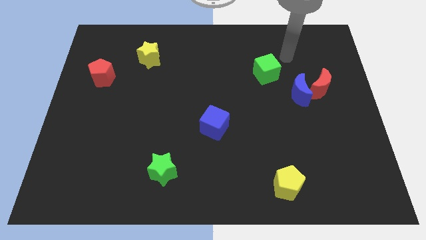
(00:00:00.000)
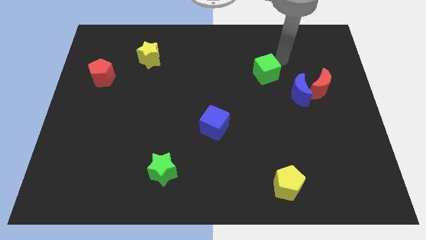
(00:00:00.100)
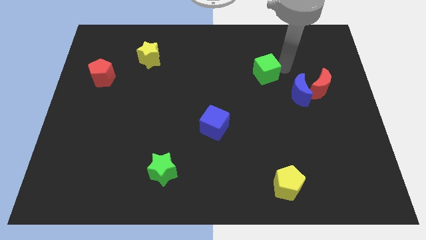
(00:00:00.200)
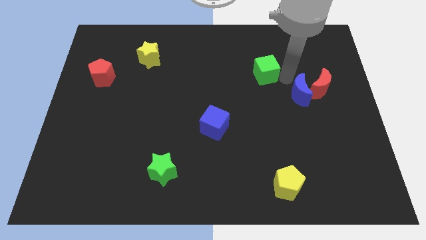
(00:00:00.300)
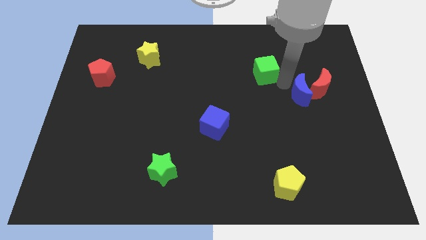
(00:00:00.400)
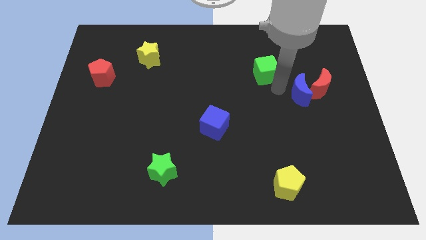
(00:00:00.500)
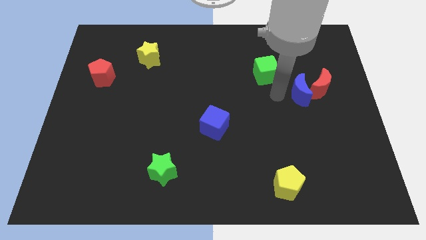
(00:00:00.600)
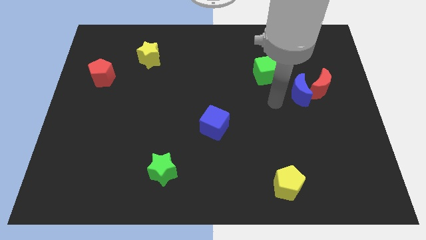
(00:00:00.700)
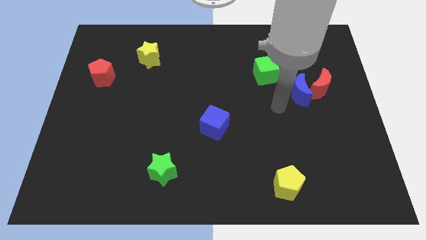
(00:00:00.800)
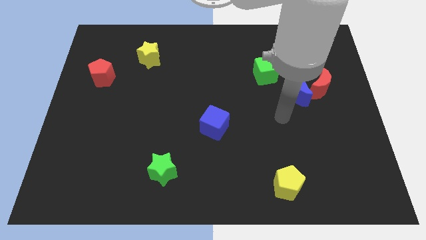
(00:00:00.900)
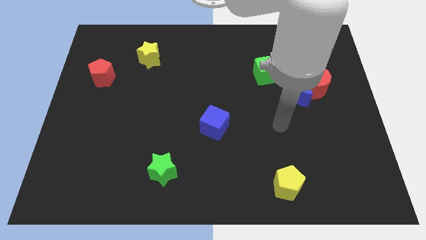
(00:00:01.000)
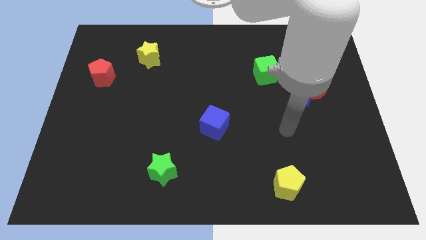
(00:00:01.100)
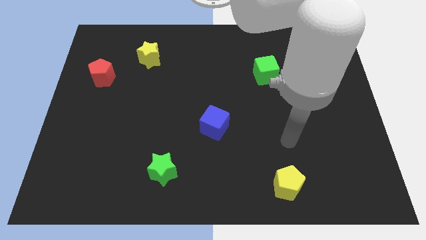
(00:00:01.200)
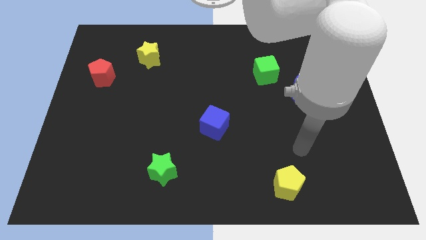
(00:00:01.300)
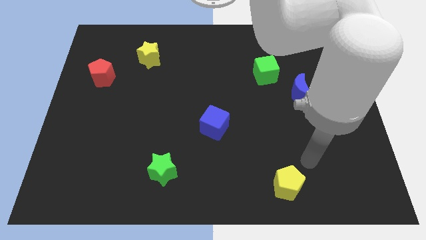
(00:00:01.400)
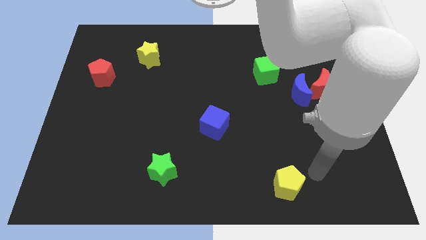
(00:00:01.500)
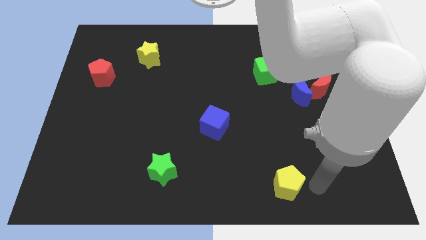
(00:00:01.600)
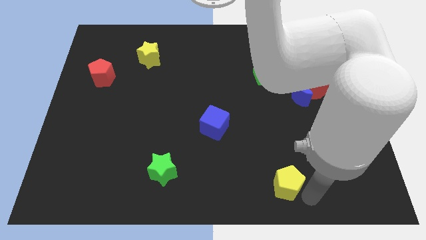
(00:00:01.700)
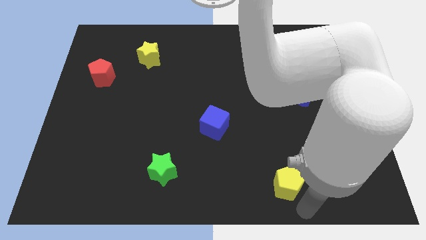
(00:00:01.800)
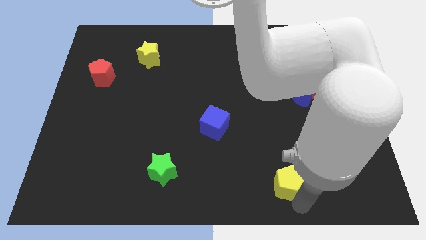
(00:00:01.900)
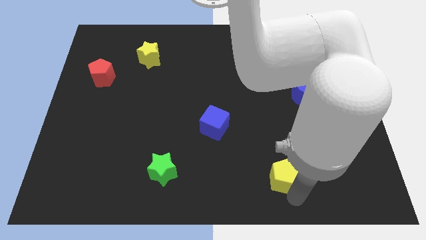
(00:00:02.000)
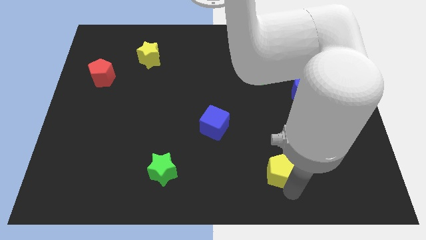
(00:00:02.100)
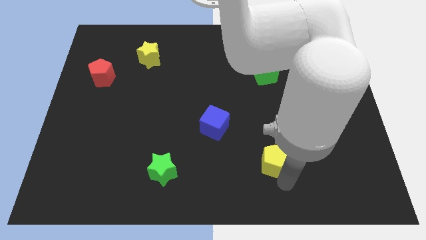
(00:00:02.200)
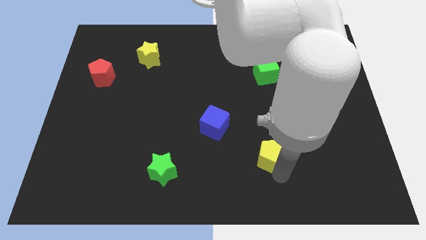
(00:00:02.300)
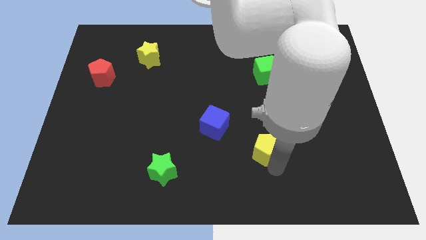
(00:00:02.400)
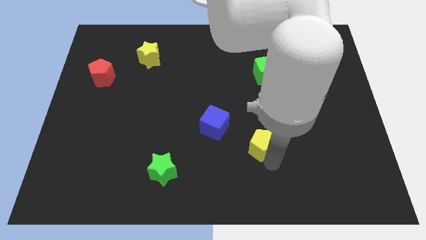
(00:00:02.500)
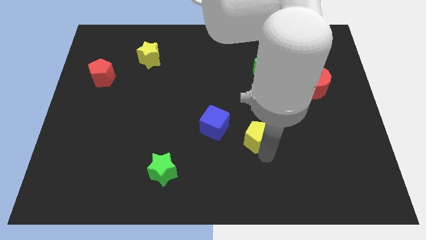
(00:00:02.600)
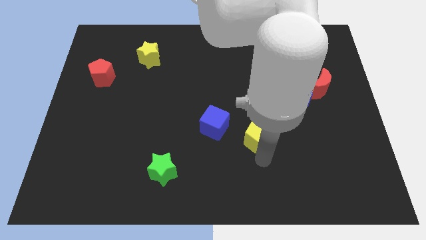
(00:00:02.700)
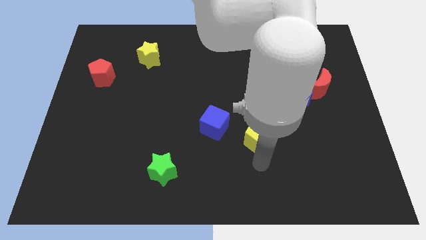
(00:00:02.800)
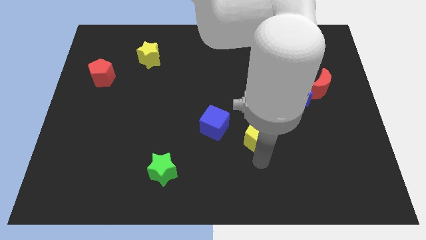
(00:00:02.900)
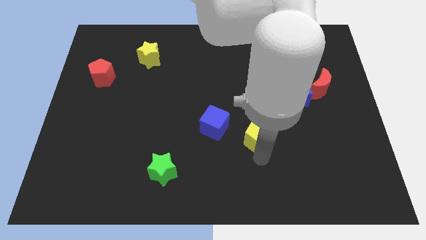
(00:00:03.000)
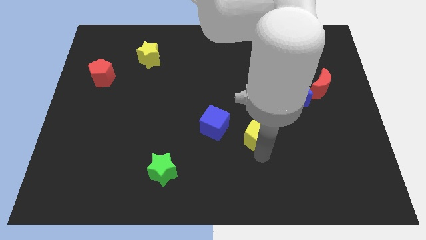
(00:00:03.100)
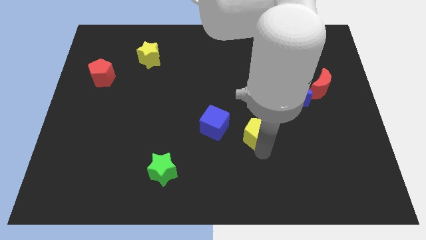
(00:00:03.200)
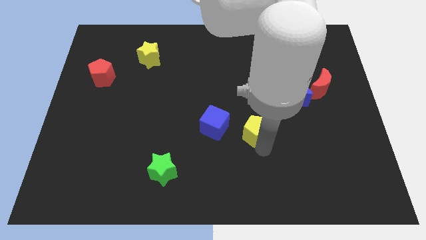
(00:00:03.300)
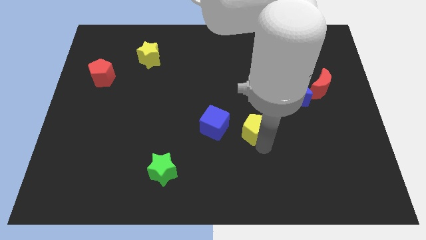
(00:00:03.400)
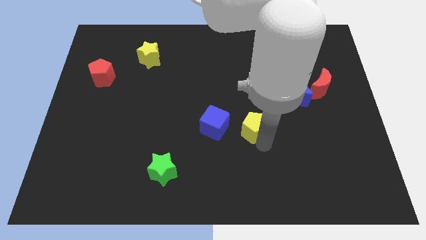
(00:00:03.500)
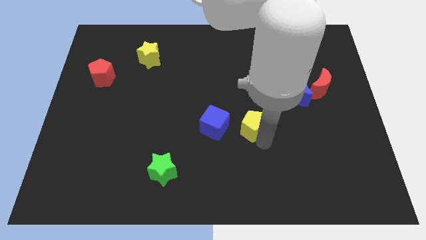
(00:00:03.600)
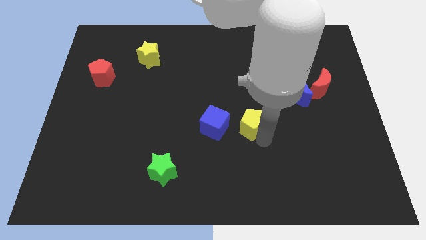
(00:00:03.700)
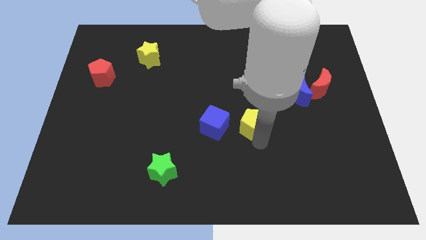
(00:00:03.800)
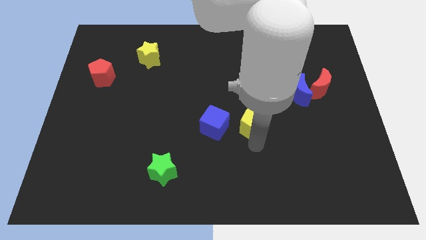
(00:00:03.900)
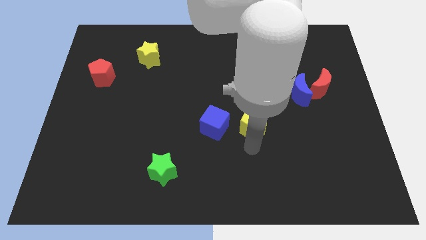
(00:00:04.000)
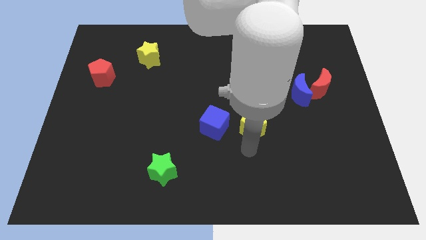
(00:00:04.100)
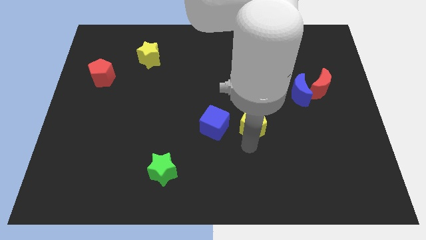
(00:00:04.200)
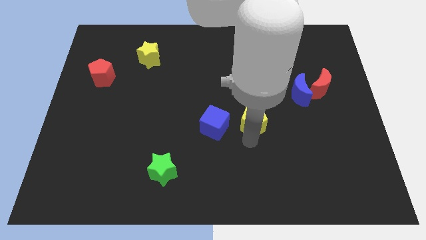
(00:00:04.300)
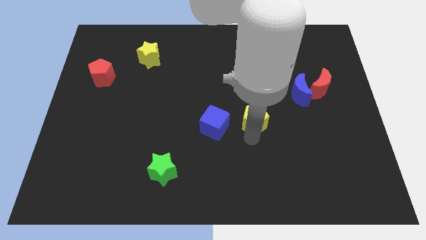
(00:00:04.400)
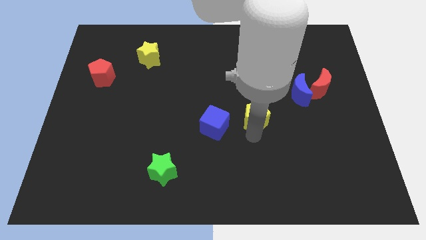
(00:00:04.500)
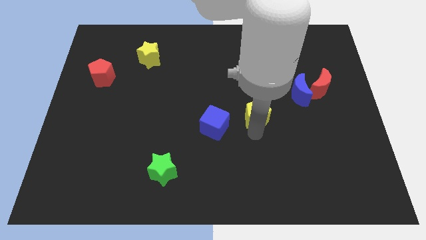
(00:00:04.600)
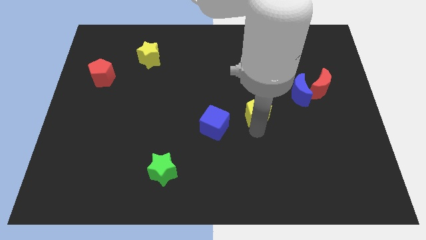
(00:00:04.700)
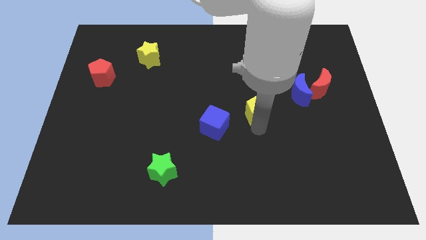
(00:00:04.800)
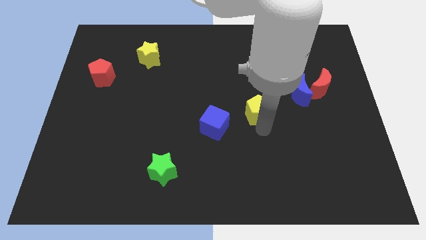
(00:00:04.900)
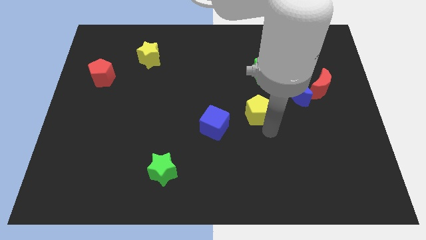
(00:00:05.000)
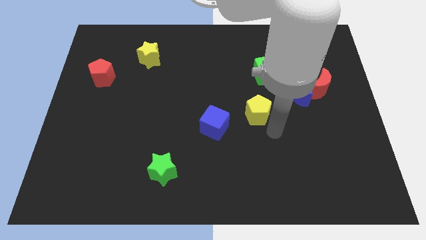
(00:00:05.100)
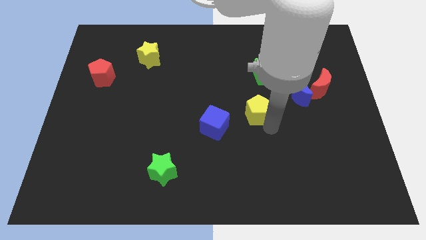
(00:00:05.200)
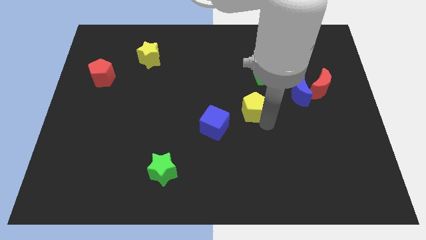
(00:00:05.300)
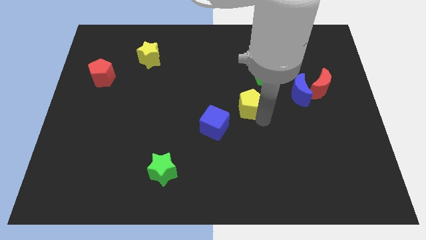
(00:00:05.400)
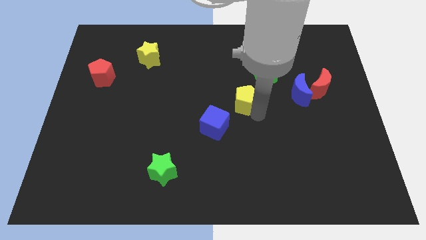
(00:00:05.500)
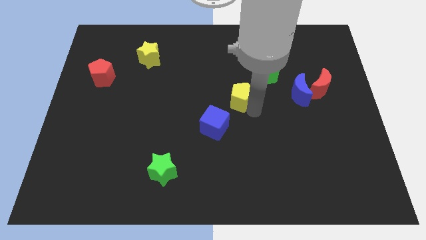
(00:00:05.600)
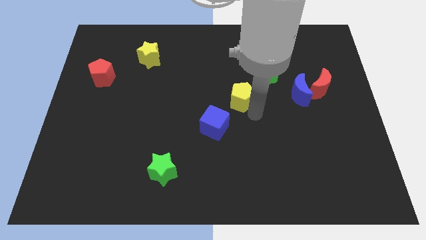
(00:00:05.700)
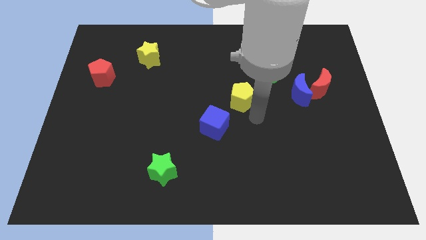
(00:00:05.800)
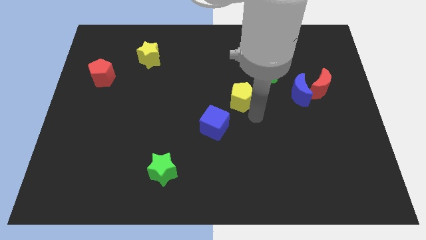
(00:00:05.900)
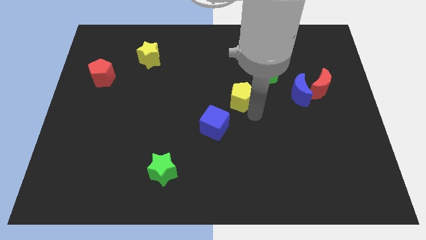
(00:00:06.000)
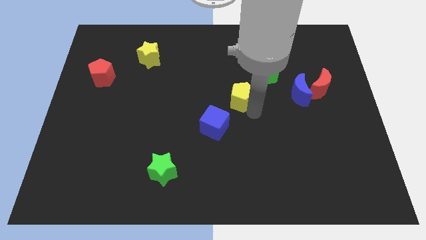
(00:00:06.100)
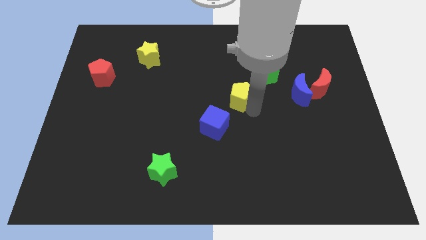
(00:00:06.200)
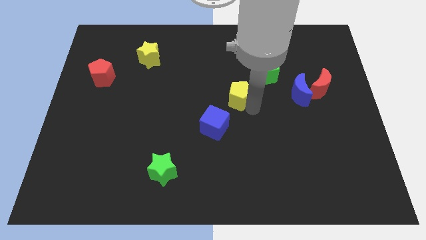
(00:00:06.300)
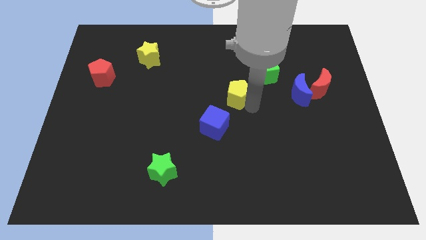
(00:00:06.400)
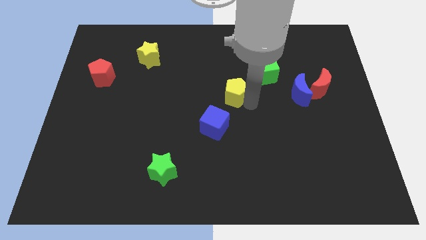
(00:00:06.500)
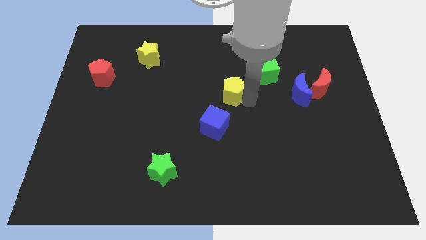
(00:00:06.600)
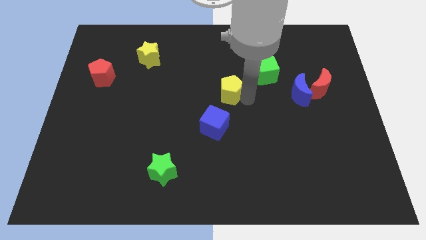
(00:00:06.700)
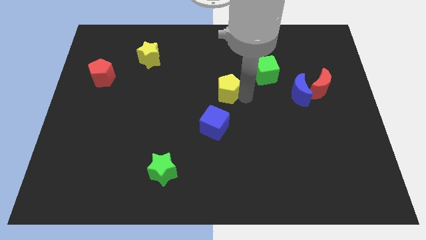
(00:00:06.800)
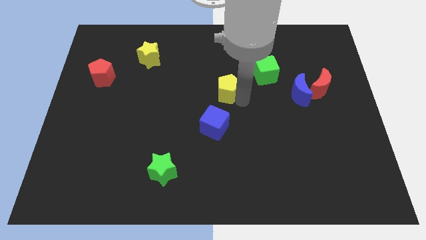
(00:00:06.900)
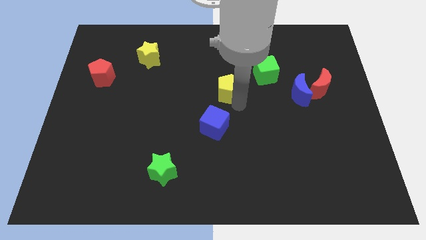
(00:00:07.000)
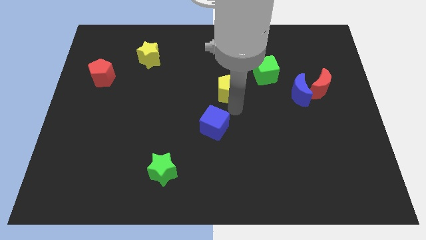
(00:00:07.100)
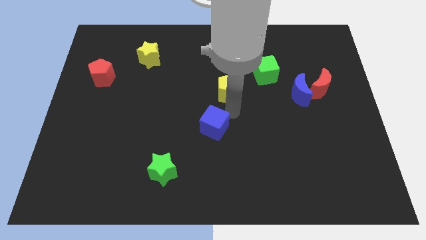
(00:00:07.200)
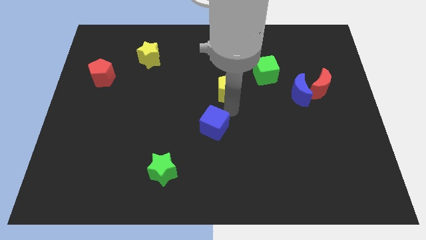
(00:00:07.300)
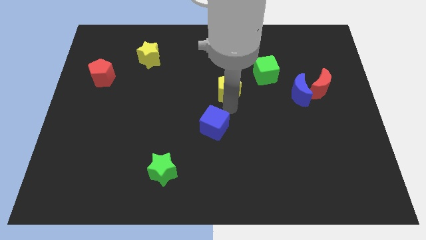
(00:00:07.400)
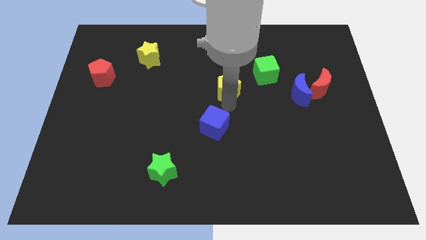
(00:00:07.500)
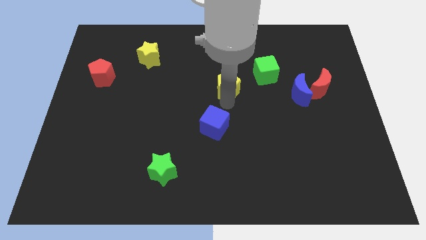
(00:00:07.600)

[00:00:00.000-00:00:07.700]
slide the yellow pentagon to the left side of the green cube

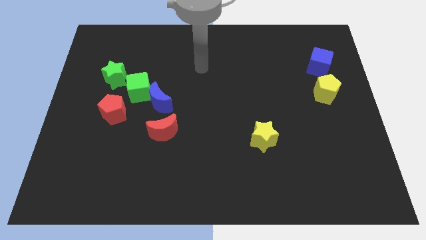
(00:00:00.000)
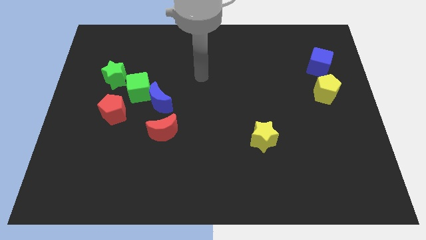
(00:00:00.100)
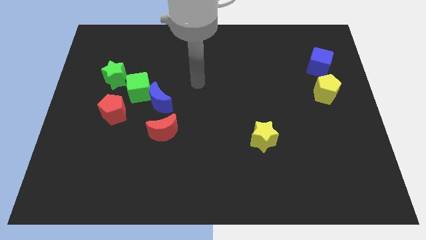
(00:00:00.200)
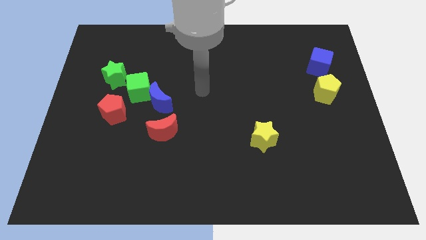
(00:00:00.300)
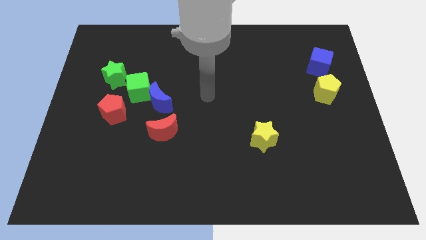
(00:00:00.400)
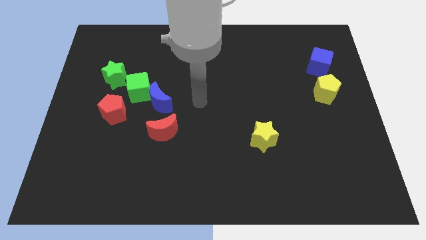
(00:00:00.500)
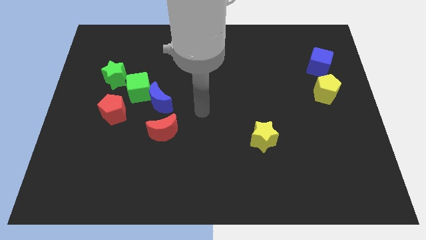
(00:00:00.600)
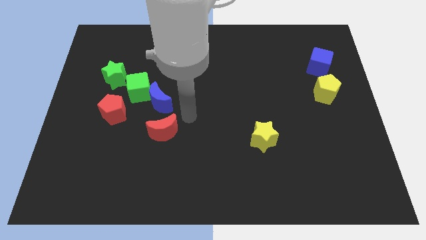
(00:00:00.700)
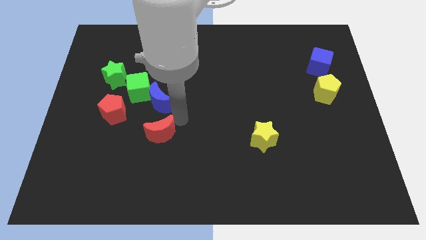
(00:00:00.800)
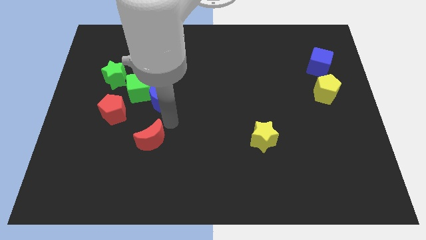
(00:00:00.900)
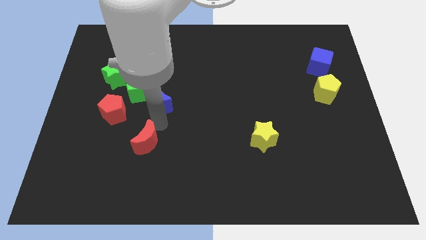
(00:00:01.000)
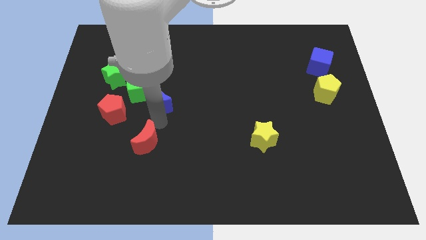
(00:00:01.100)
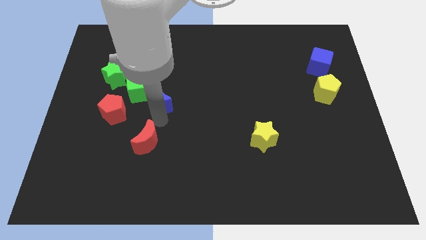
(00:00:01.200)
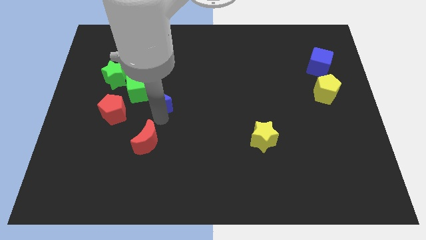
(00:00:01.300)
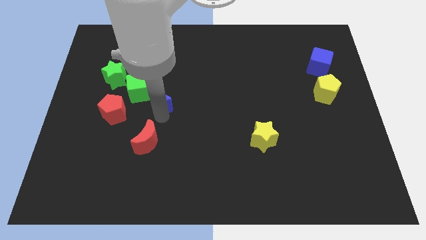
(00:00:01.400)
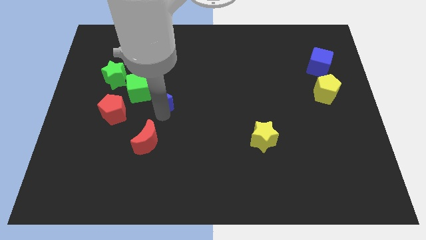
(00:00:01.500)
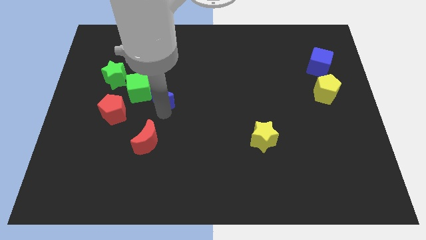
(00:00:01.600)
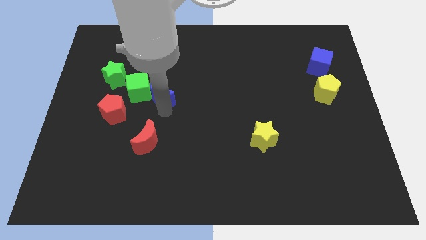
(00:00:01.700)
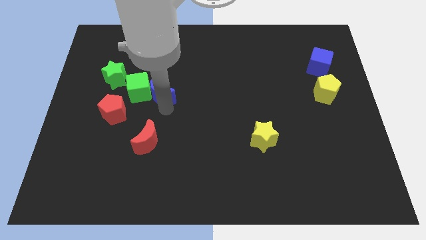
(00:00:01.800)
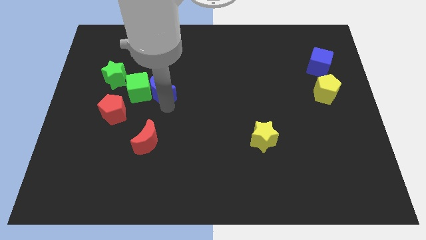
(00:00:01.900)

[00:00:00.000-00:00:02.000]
slide the blue moon to the top right of the green cube
